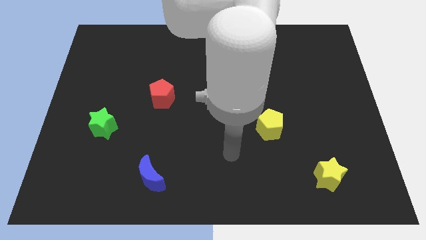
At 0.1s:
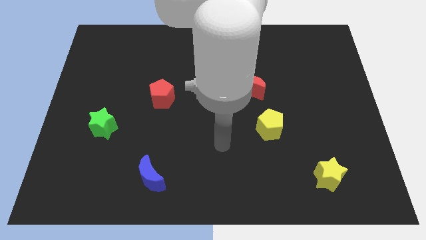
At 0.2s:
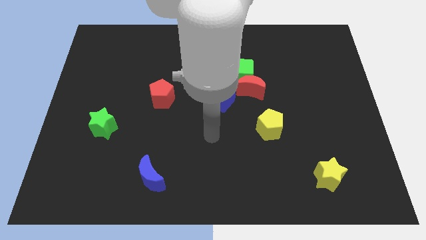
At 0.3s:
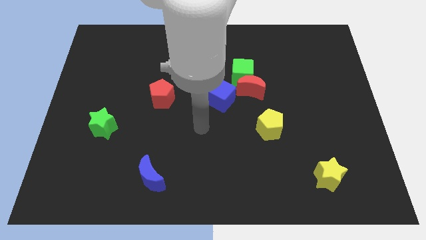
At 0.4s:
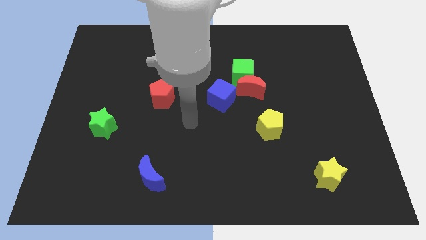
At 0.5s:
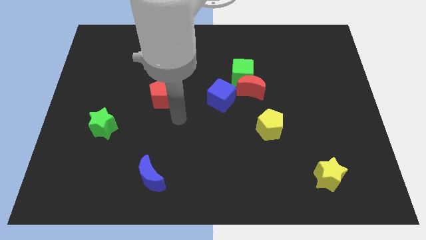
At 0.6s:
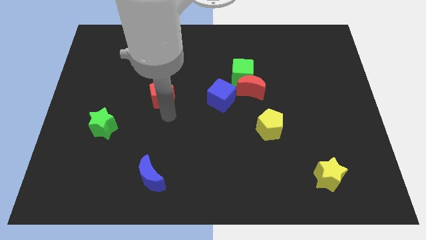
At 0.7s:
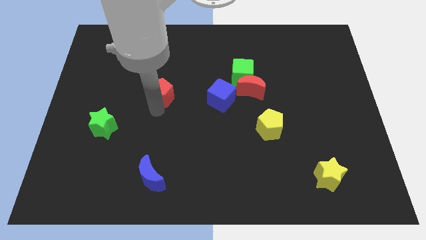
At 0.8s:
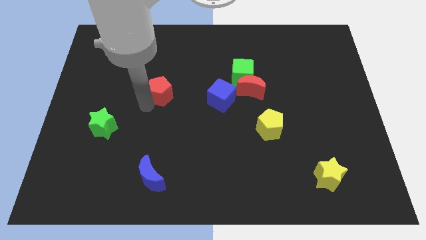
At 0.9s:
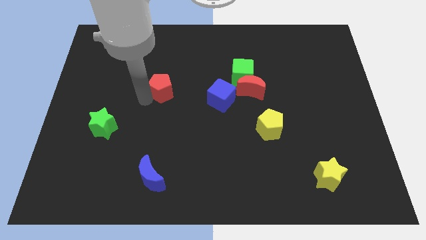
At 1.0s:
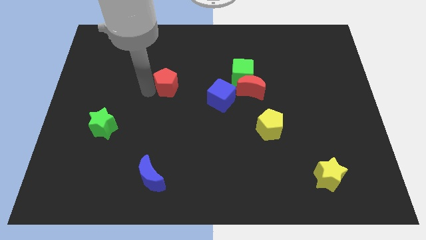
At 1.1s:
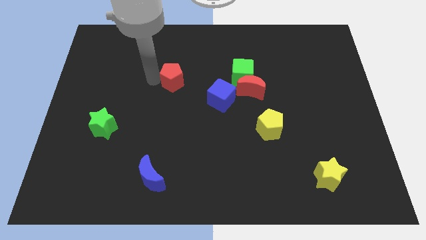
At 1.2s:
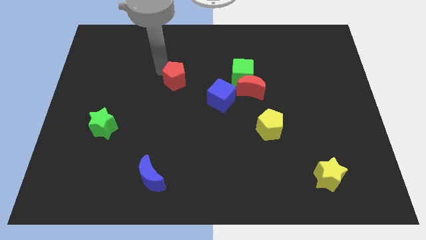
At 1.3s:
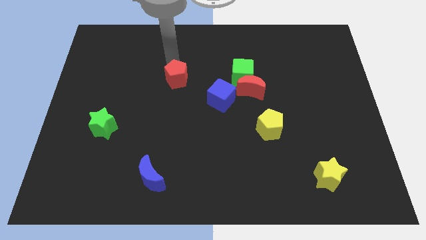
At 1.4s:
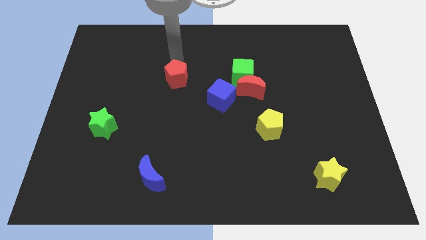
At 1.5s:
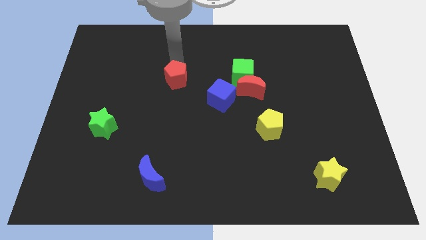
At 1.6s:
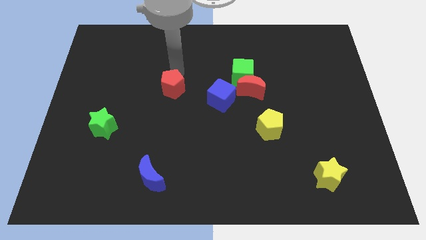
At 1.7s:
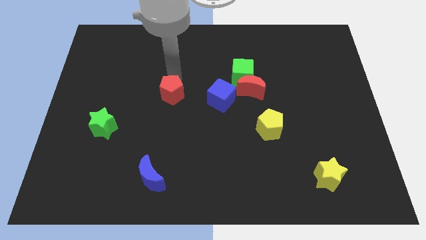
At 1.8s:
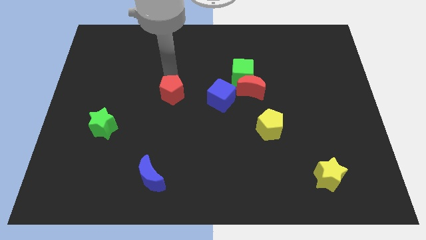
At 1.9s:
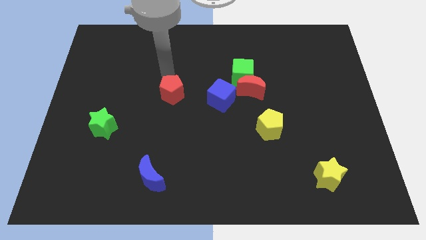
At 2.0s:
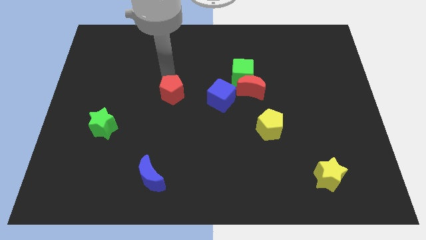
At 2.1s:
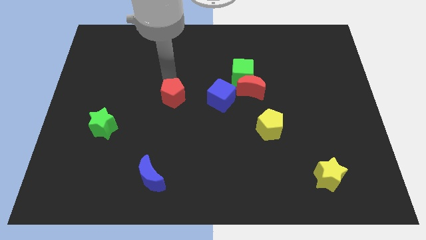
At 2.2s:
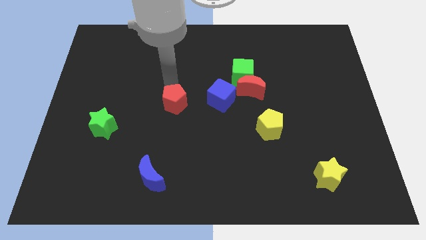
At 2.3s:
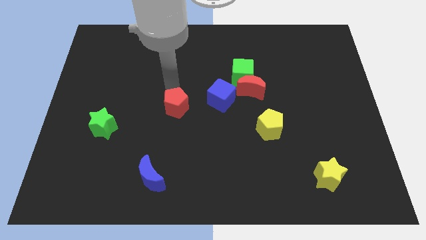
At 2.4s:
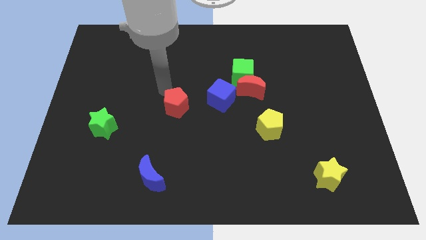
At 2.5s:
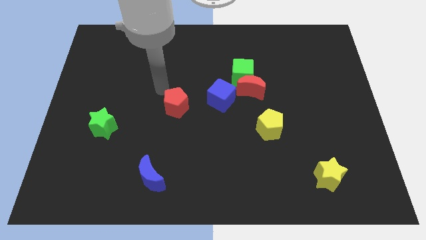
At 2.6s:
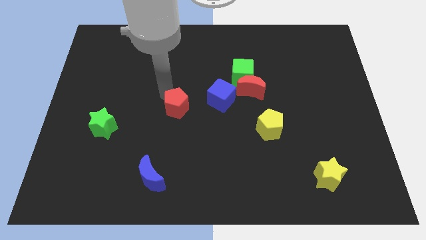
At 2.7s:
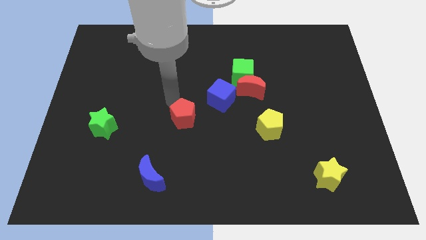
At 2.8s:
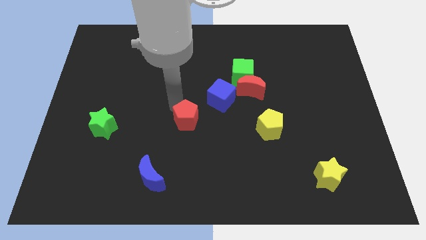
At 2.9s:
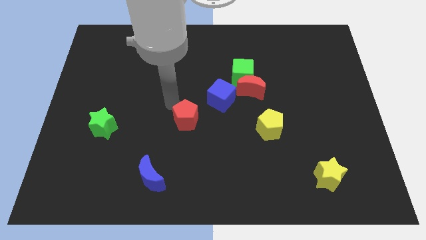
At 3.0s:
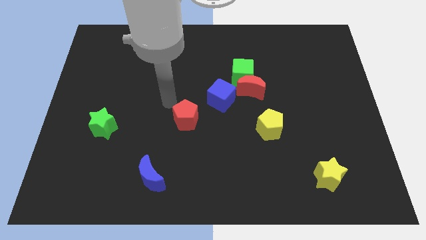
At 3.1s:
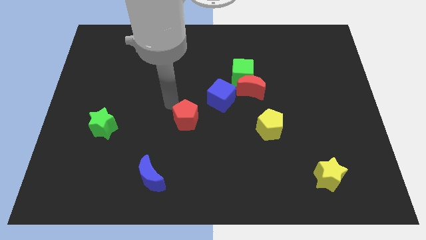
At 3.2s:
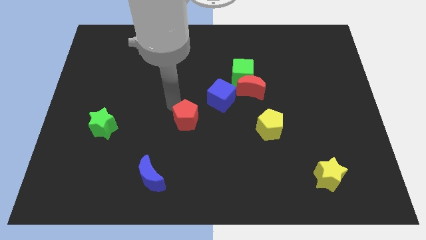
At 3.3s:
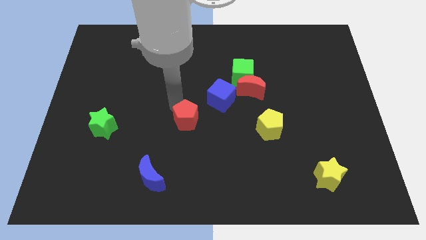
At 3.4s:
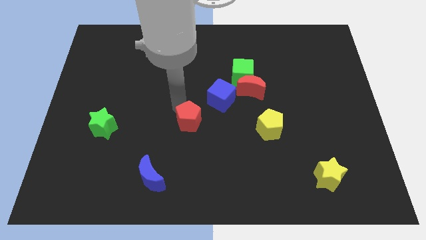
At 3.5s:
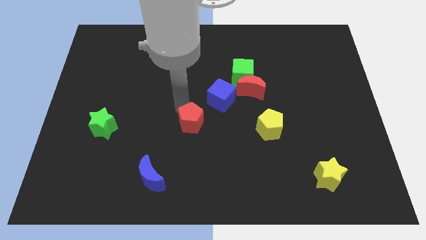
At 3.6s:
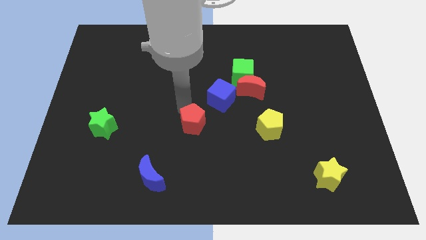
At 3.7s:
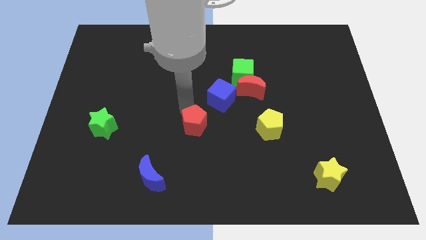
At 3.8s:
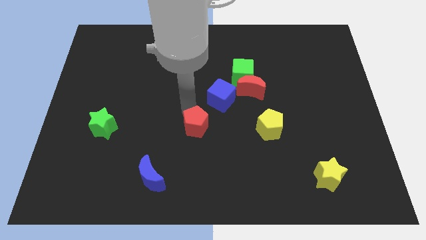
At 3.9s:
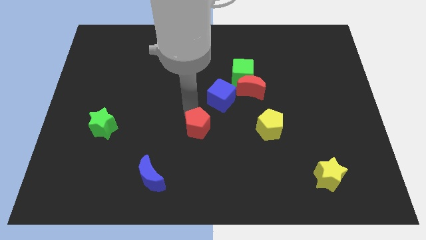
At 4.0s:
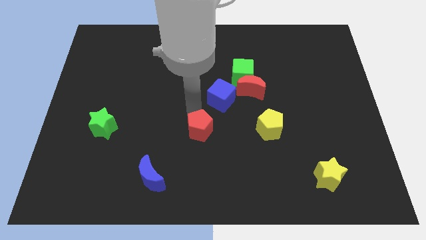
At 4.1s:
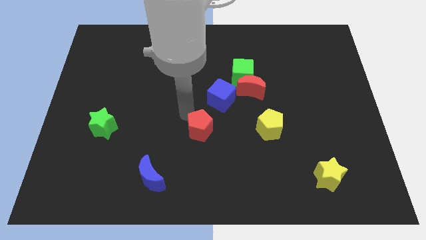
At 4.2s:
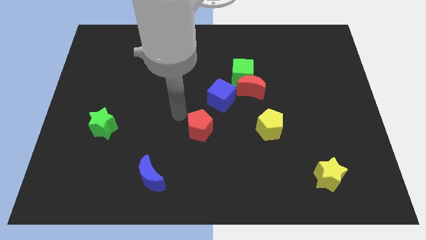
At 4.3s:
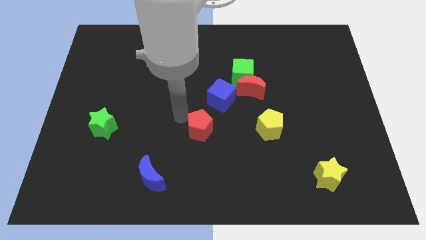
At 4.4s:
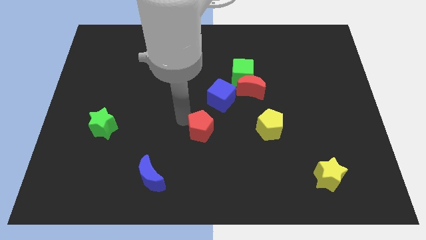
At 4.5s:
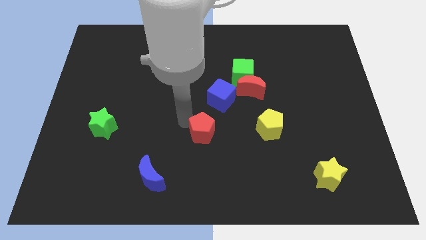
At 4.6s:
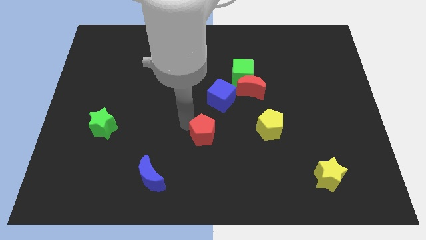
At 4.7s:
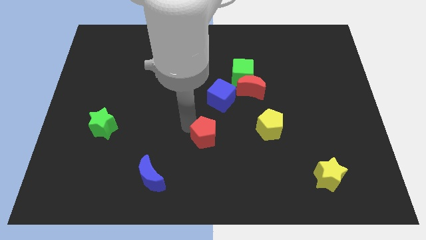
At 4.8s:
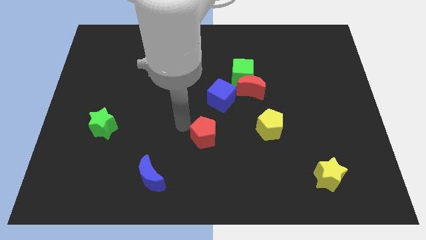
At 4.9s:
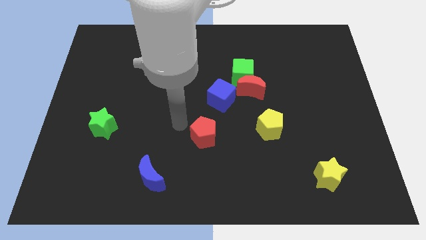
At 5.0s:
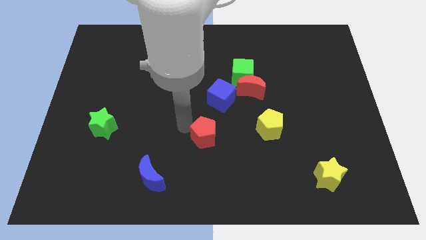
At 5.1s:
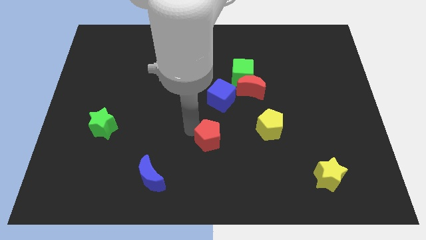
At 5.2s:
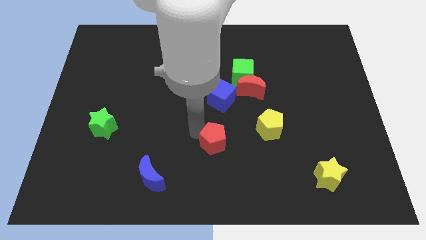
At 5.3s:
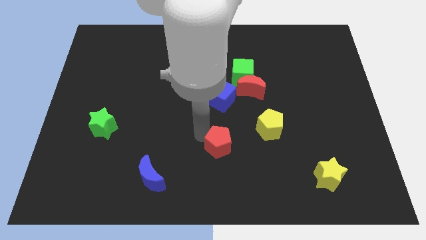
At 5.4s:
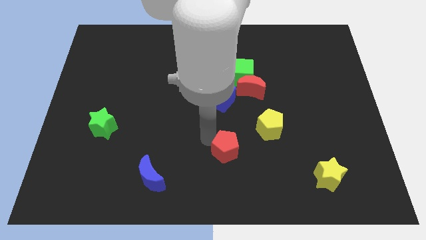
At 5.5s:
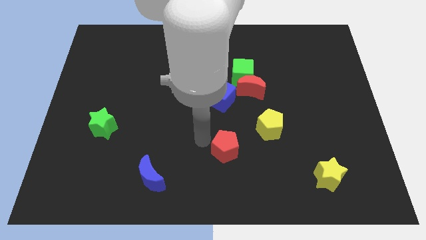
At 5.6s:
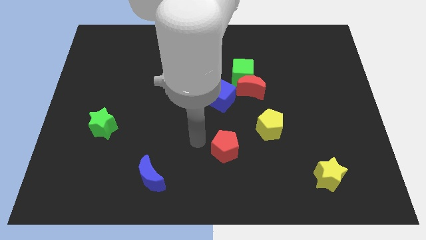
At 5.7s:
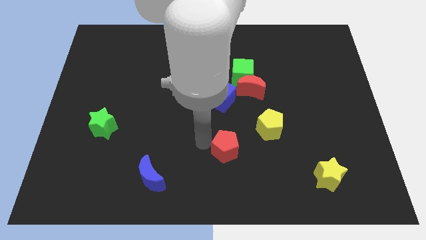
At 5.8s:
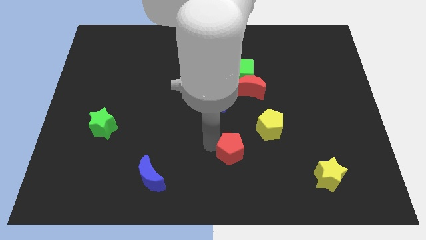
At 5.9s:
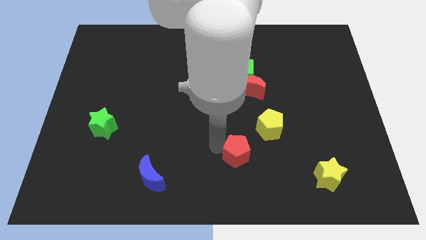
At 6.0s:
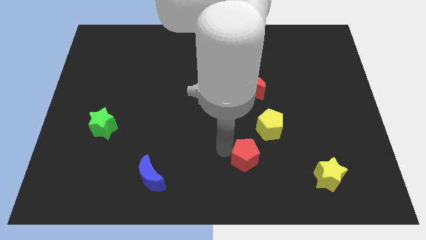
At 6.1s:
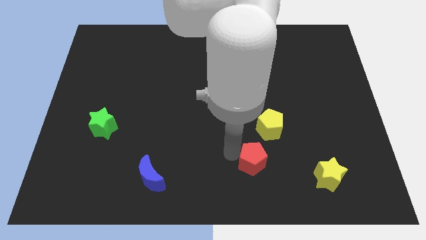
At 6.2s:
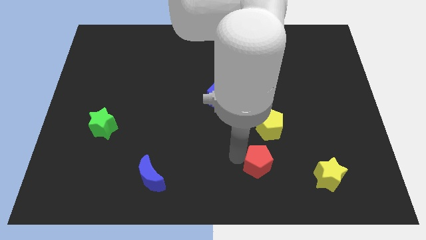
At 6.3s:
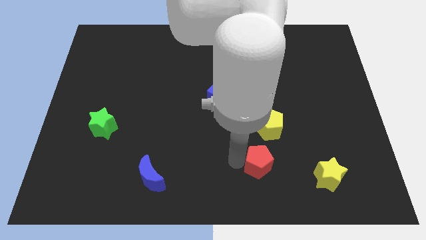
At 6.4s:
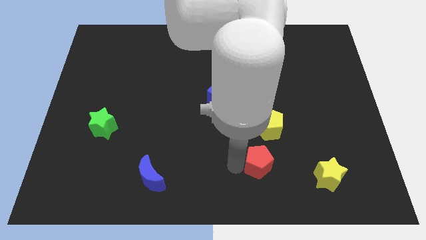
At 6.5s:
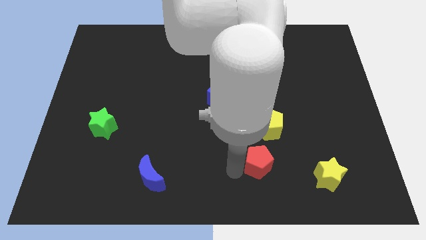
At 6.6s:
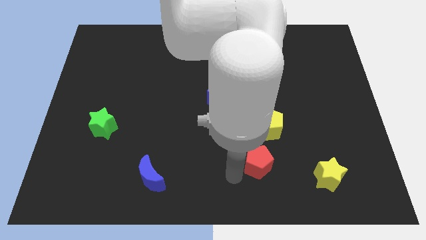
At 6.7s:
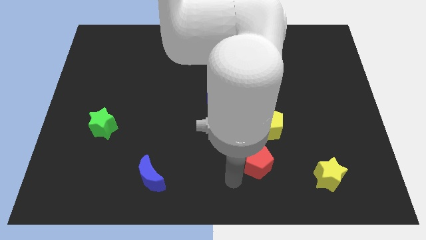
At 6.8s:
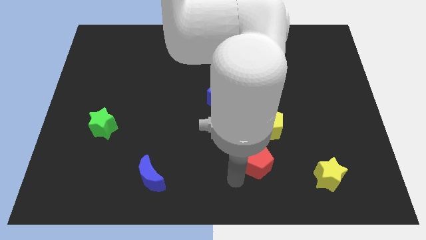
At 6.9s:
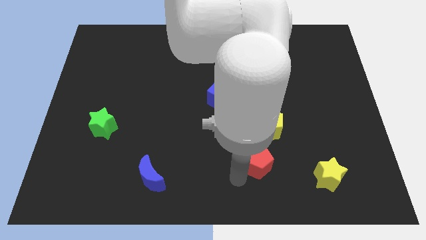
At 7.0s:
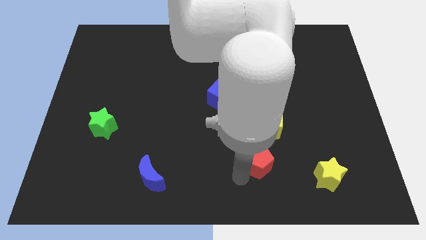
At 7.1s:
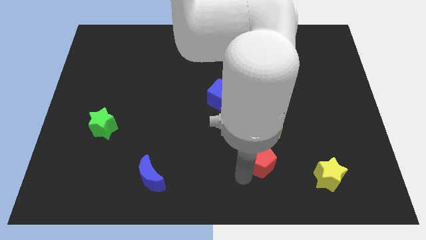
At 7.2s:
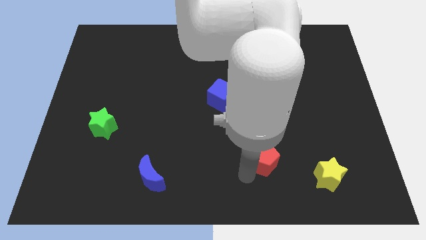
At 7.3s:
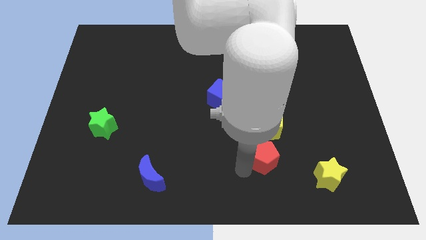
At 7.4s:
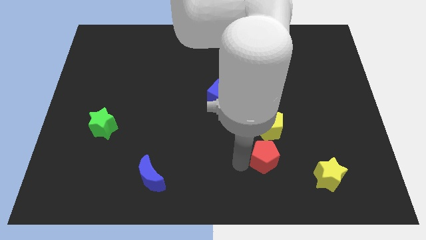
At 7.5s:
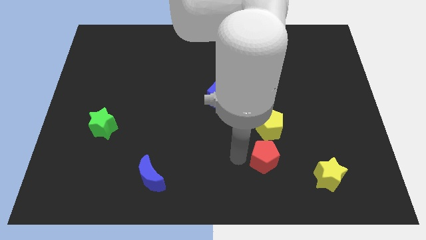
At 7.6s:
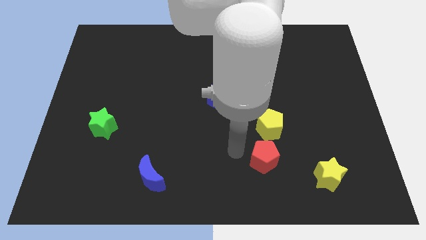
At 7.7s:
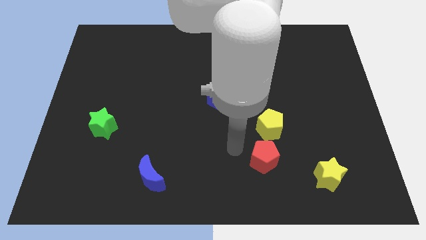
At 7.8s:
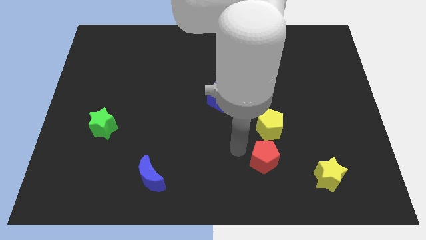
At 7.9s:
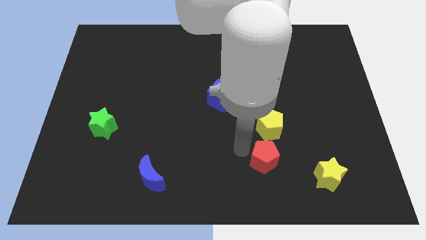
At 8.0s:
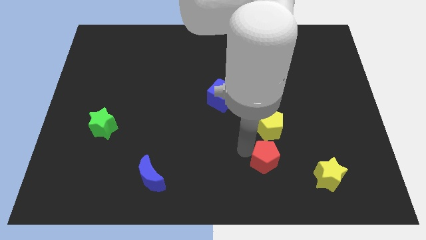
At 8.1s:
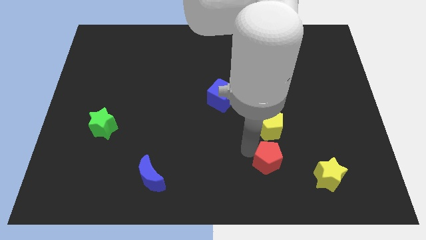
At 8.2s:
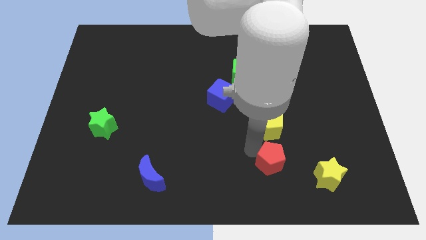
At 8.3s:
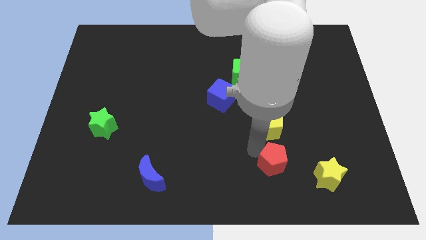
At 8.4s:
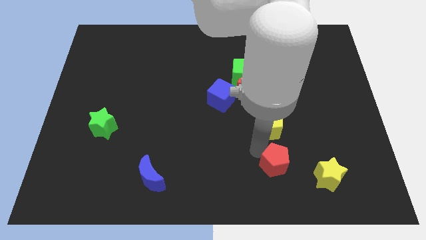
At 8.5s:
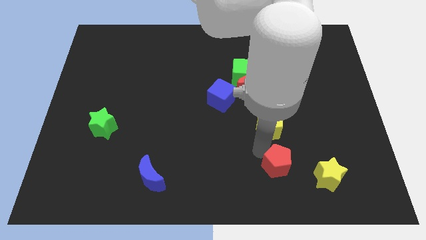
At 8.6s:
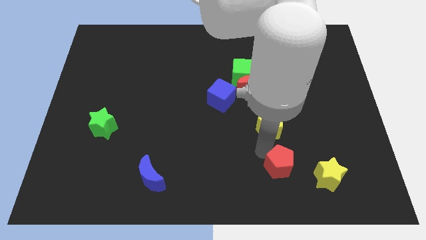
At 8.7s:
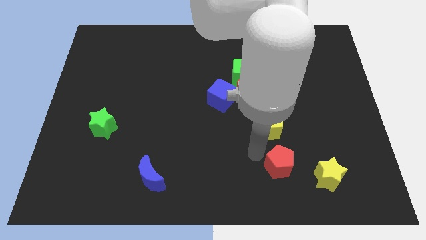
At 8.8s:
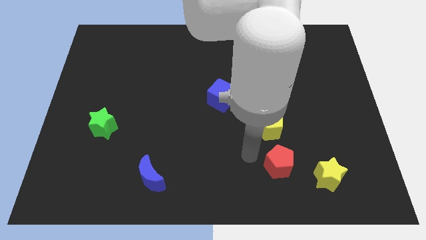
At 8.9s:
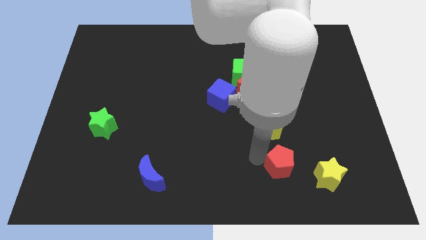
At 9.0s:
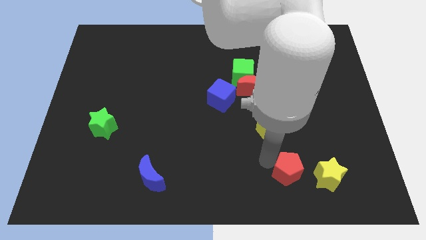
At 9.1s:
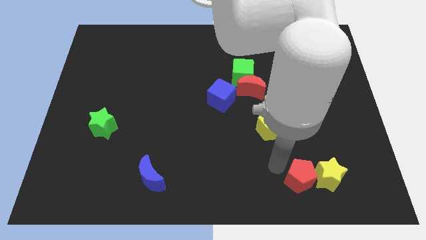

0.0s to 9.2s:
put the red pentagon close to the yellow star
